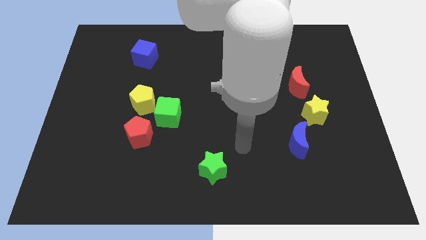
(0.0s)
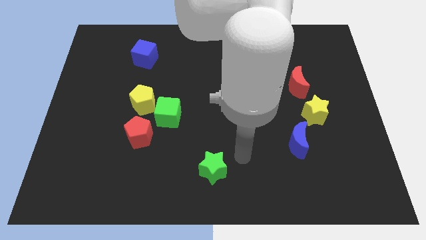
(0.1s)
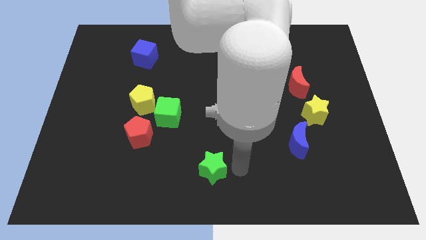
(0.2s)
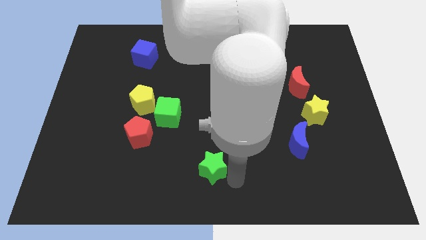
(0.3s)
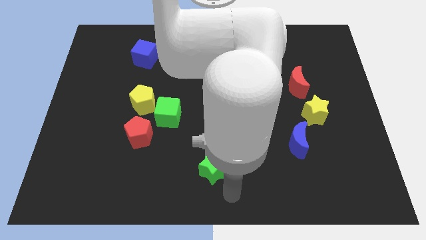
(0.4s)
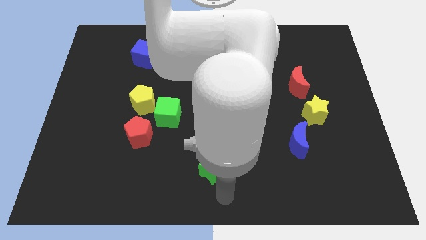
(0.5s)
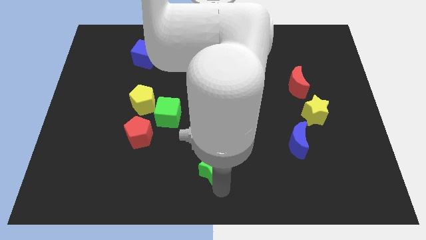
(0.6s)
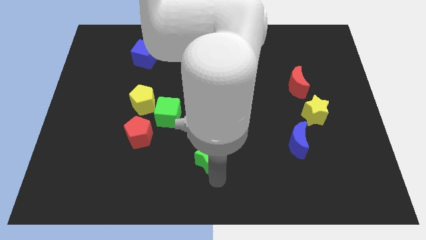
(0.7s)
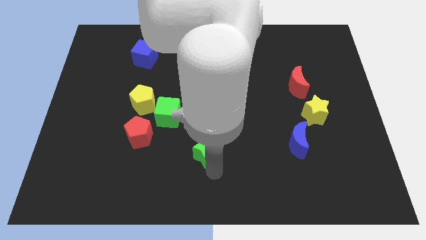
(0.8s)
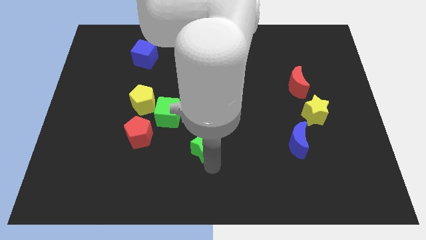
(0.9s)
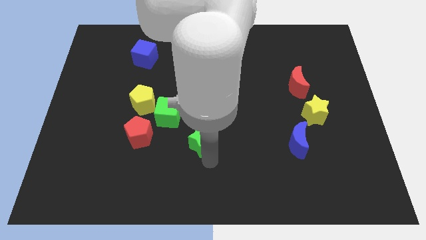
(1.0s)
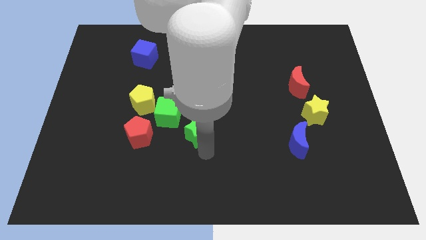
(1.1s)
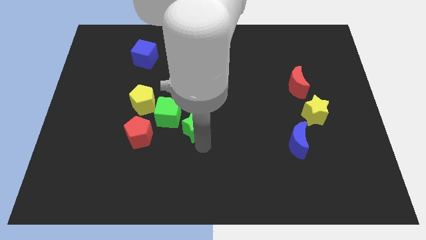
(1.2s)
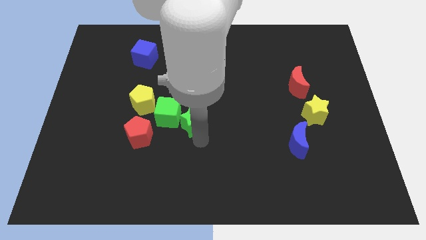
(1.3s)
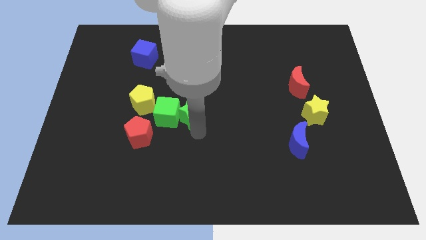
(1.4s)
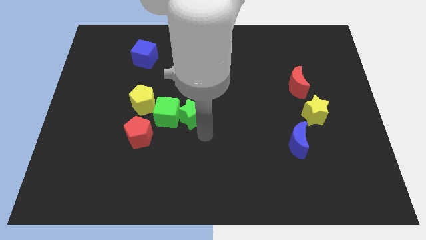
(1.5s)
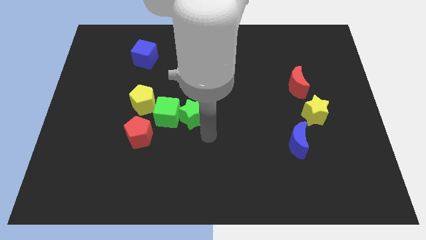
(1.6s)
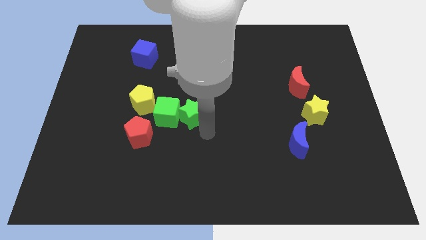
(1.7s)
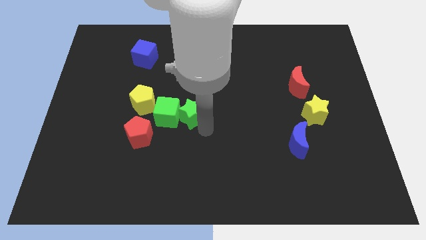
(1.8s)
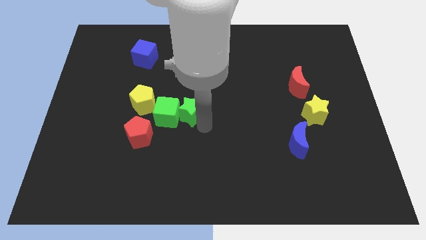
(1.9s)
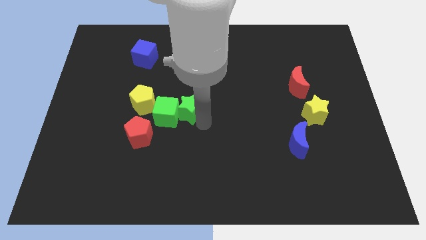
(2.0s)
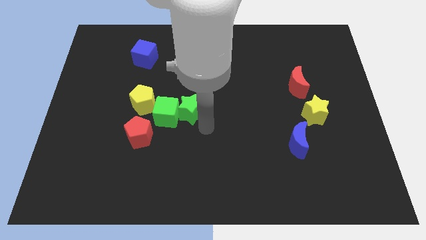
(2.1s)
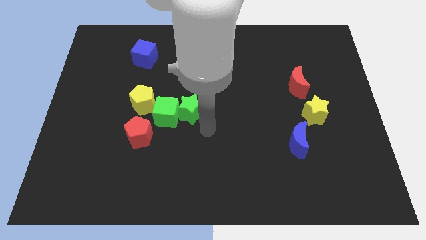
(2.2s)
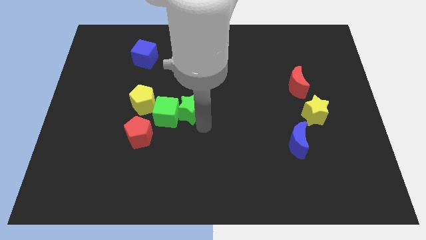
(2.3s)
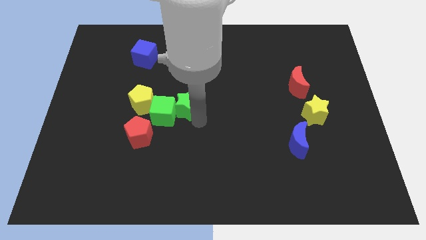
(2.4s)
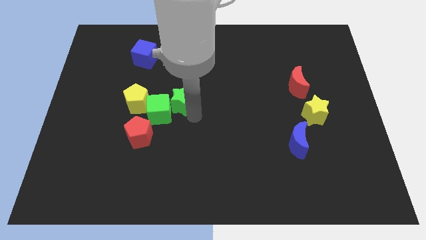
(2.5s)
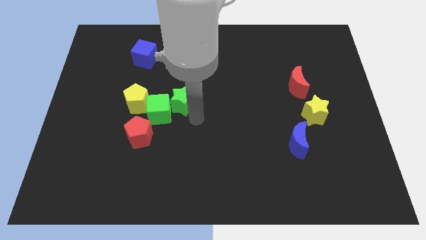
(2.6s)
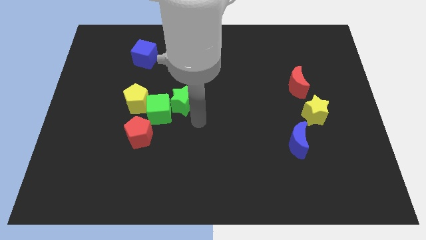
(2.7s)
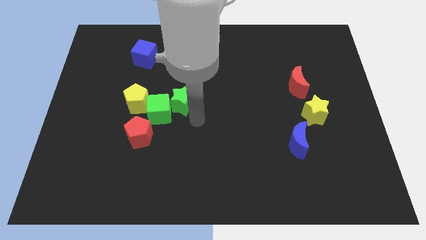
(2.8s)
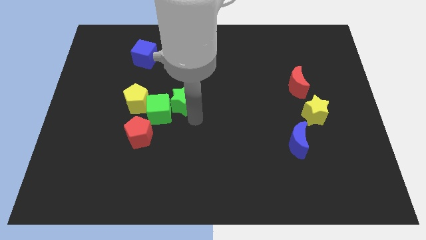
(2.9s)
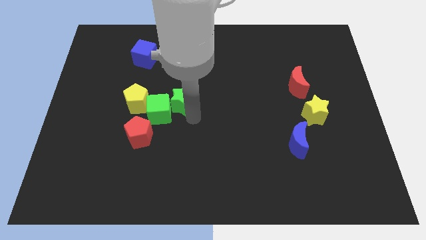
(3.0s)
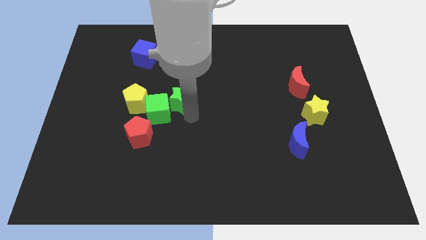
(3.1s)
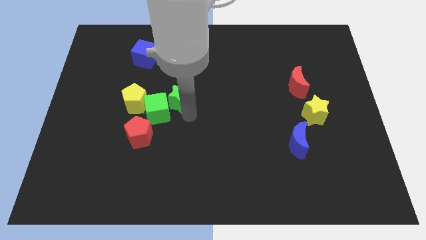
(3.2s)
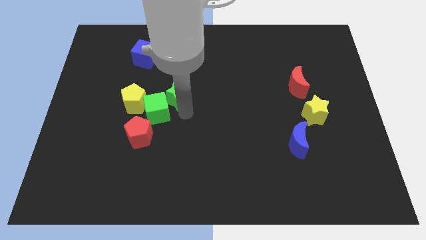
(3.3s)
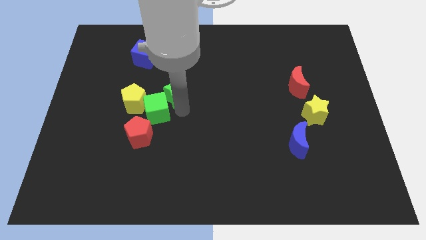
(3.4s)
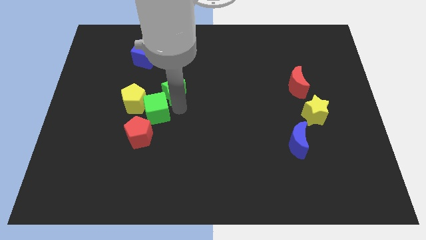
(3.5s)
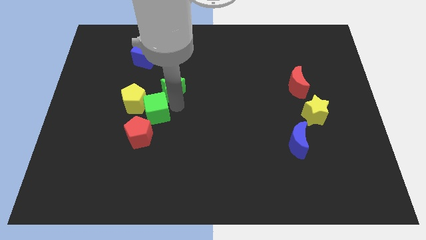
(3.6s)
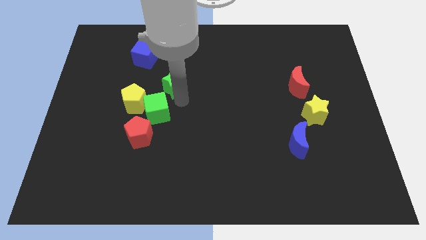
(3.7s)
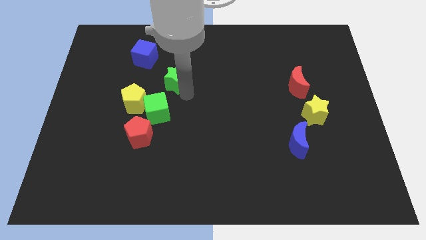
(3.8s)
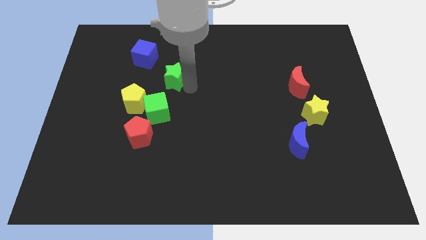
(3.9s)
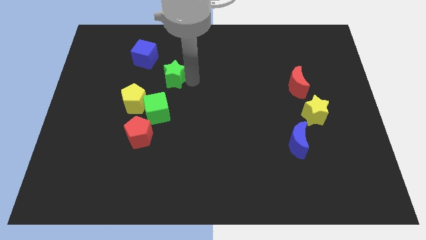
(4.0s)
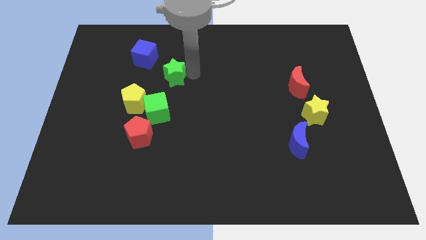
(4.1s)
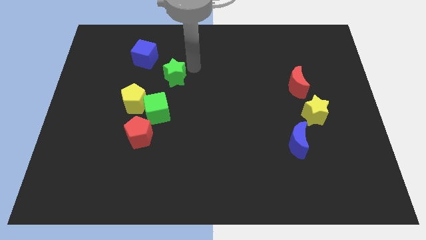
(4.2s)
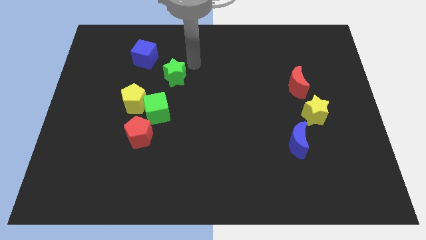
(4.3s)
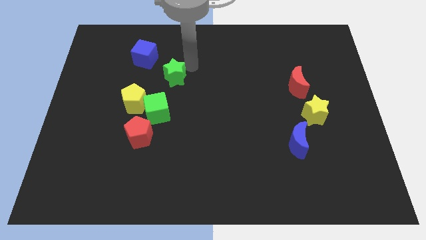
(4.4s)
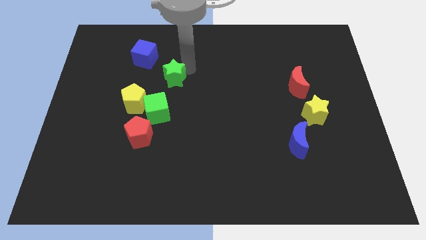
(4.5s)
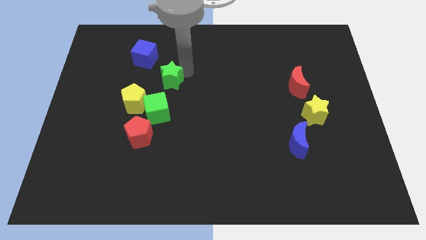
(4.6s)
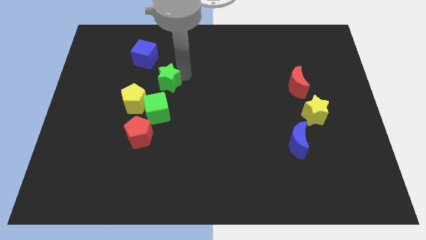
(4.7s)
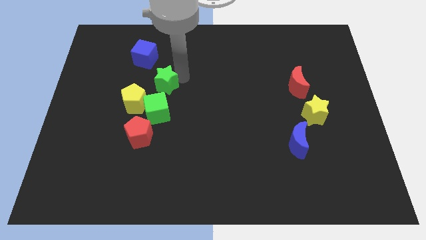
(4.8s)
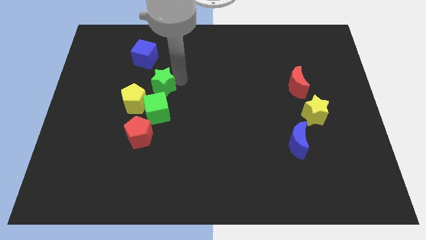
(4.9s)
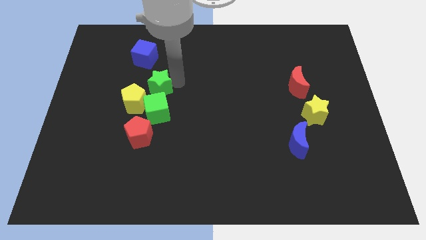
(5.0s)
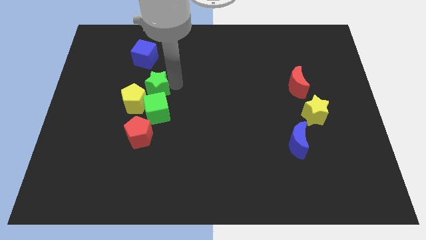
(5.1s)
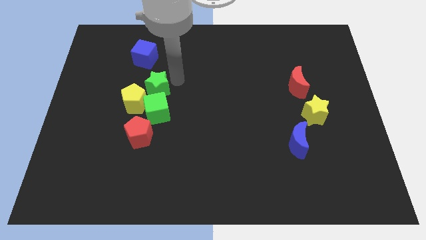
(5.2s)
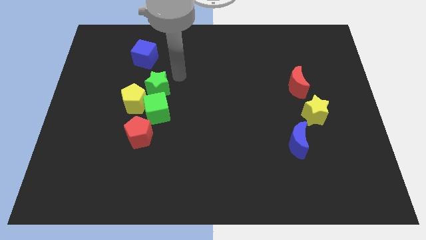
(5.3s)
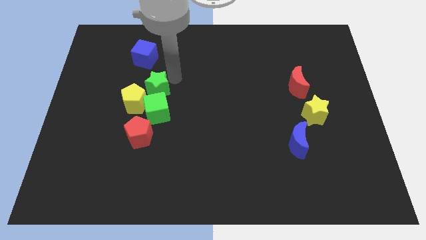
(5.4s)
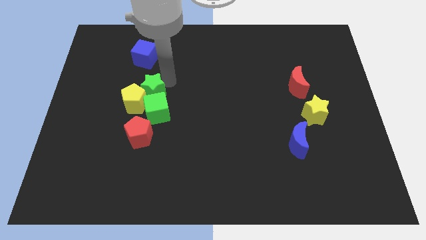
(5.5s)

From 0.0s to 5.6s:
slide the green star towards the yellow pentagon

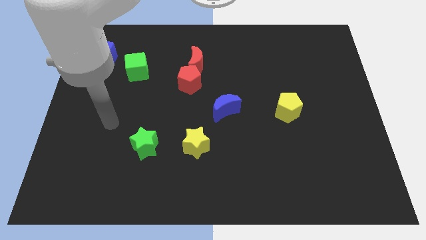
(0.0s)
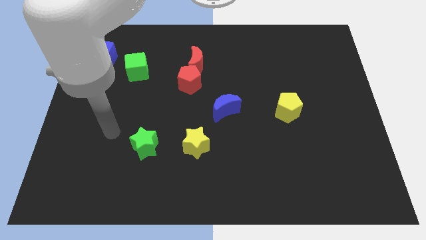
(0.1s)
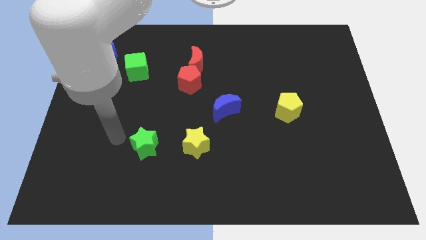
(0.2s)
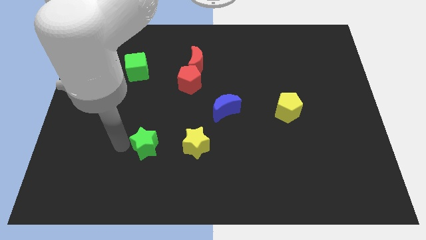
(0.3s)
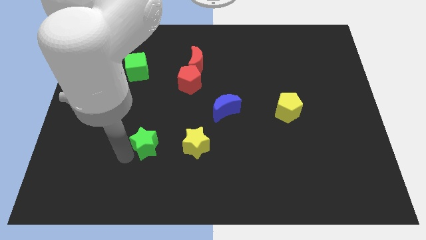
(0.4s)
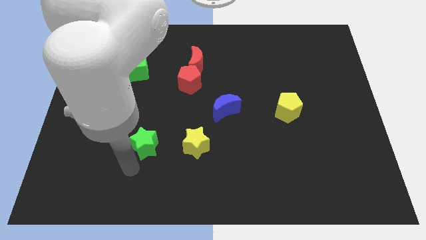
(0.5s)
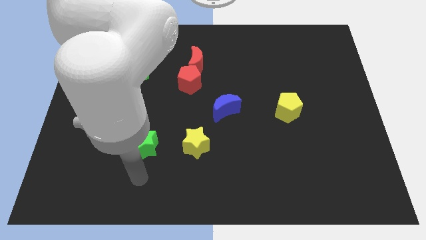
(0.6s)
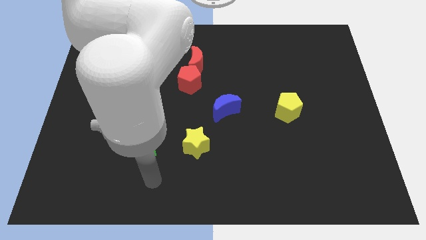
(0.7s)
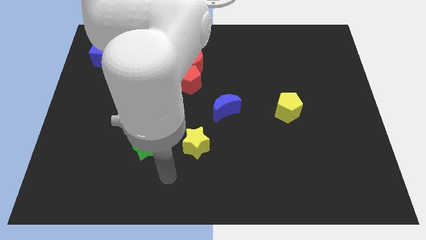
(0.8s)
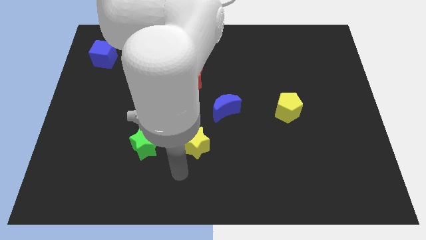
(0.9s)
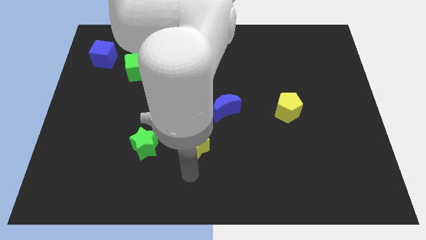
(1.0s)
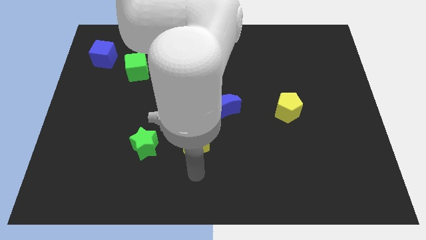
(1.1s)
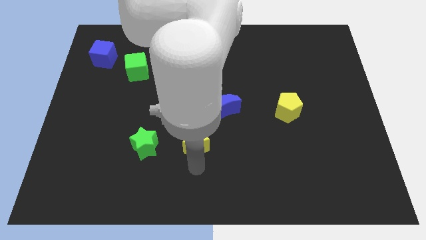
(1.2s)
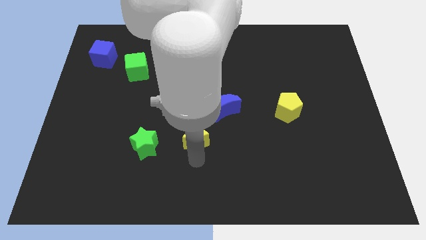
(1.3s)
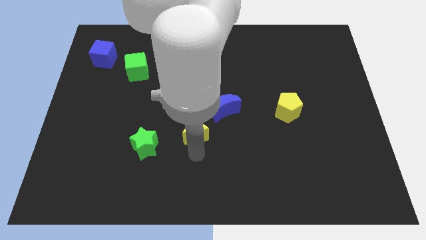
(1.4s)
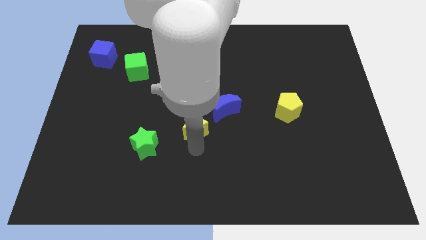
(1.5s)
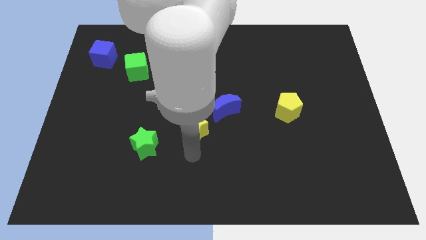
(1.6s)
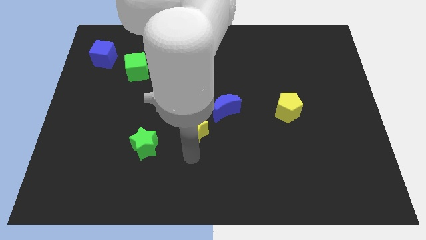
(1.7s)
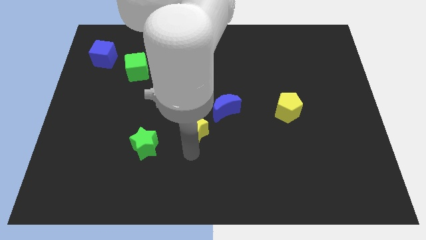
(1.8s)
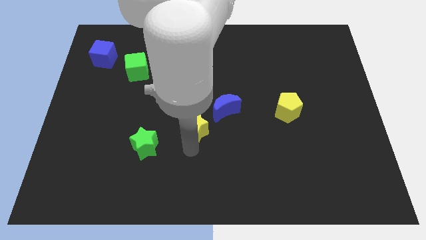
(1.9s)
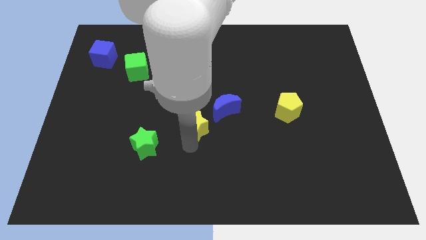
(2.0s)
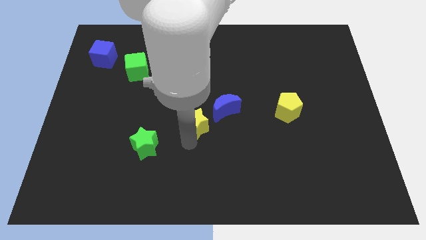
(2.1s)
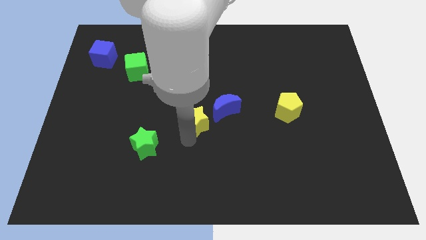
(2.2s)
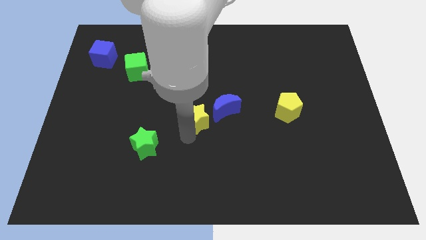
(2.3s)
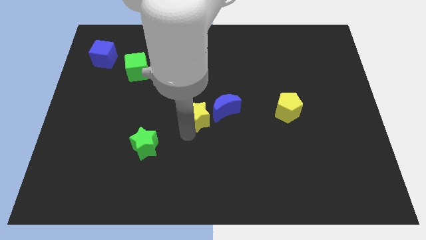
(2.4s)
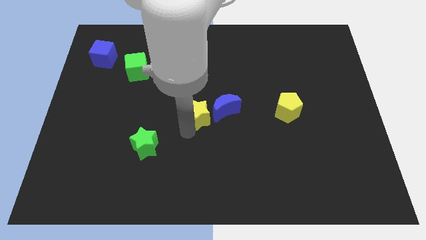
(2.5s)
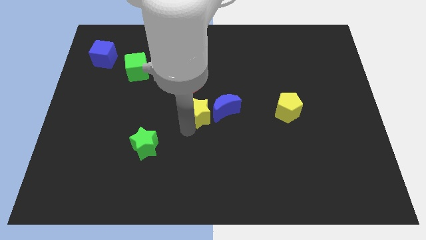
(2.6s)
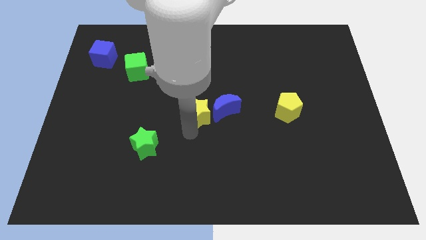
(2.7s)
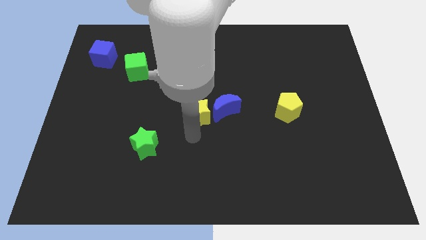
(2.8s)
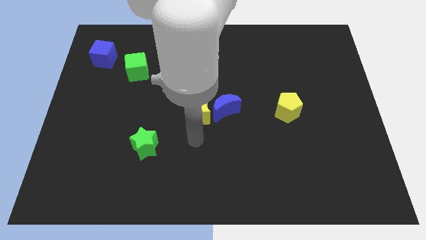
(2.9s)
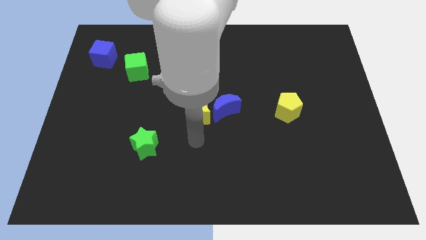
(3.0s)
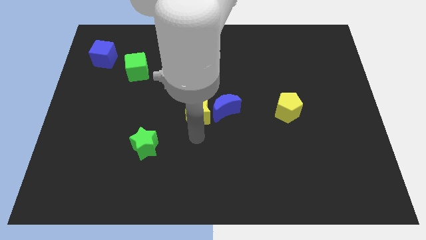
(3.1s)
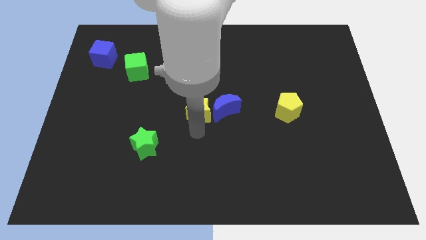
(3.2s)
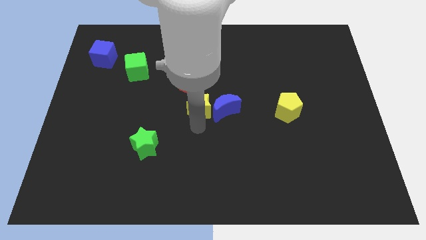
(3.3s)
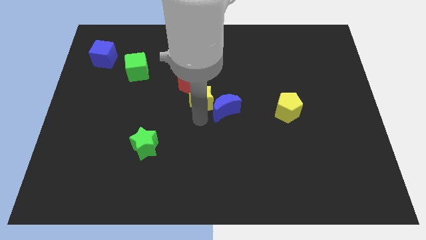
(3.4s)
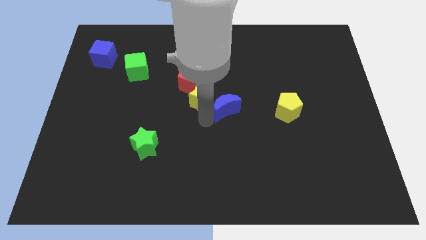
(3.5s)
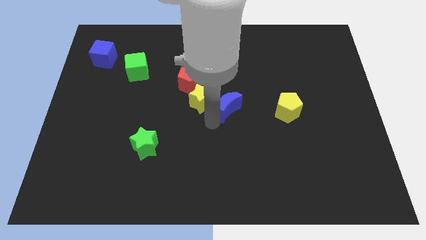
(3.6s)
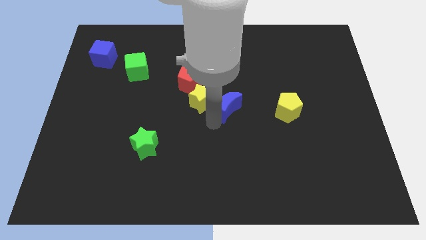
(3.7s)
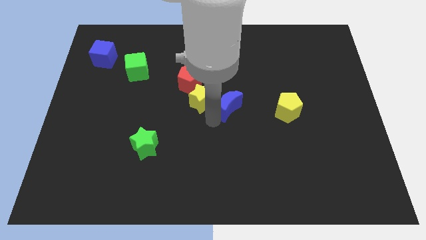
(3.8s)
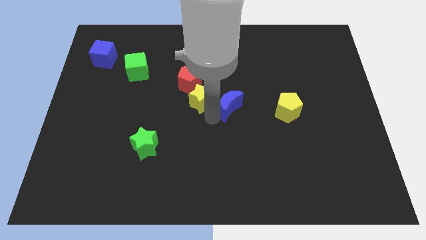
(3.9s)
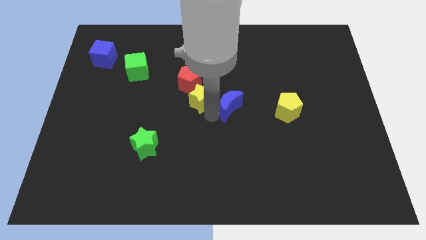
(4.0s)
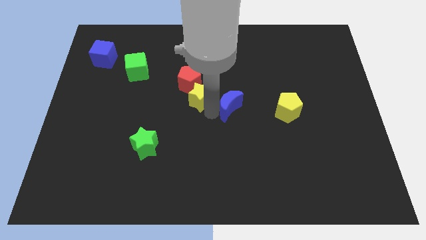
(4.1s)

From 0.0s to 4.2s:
slide the yellow star close to the red pentagon
